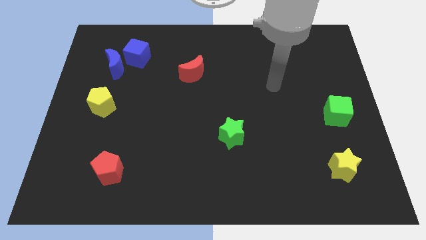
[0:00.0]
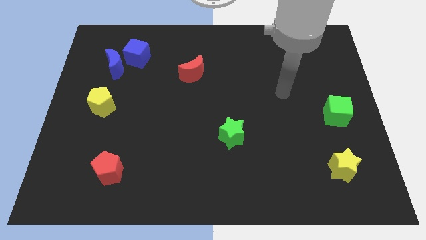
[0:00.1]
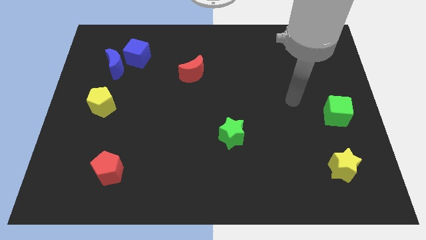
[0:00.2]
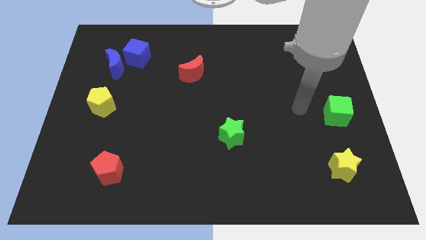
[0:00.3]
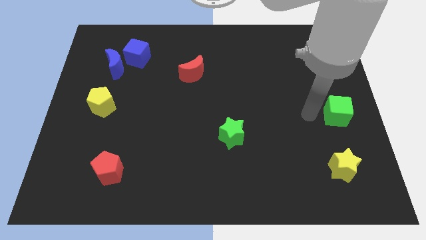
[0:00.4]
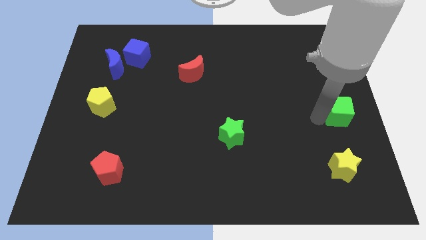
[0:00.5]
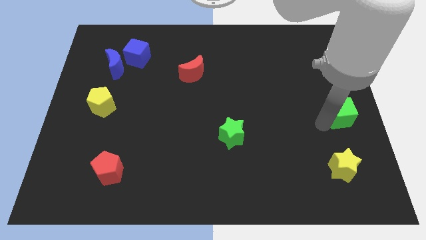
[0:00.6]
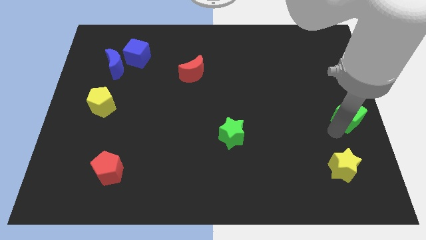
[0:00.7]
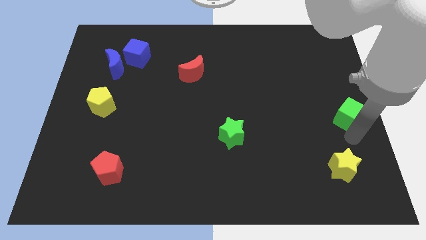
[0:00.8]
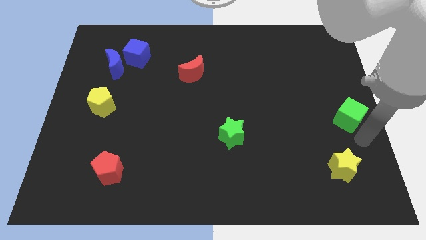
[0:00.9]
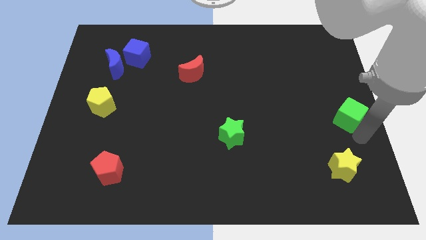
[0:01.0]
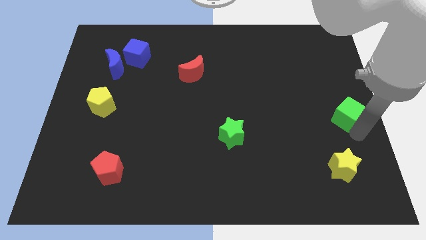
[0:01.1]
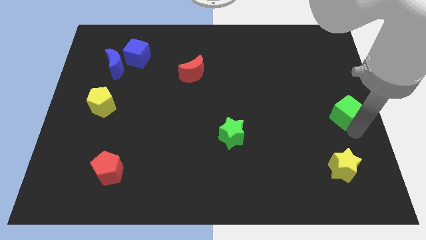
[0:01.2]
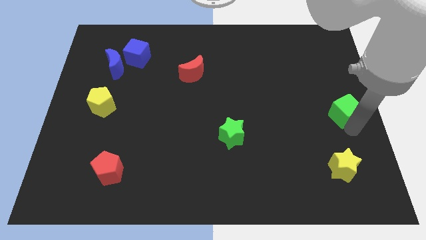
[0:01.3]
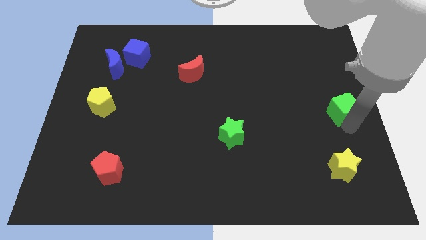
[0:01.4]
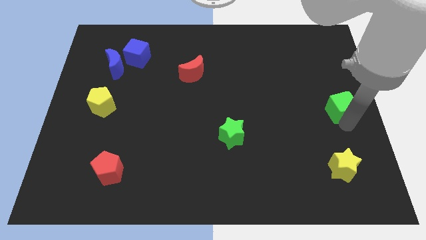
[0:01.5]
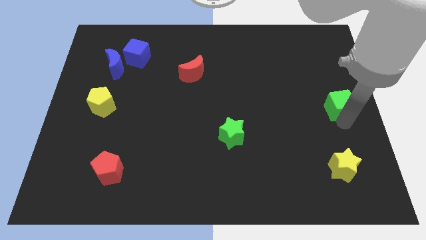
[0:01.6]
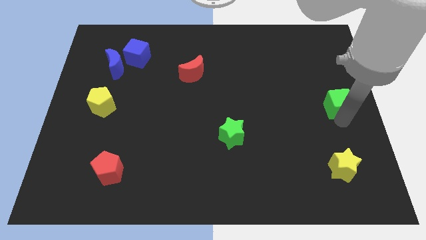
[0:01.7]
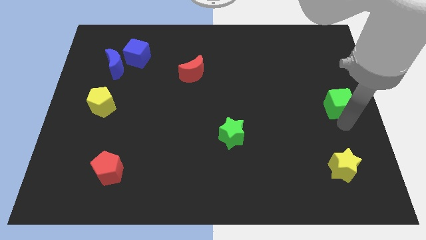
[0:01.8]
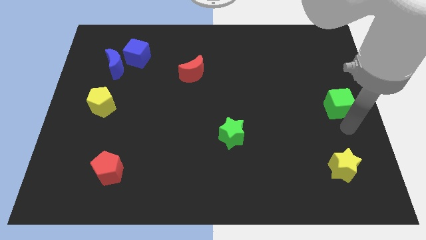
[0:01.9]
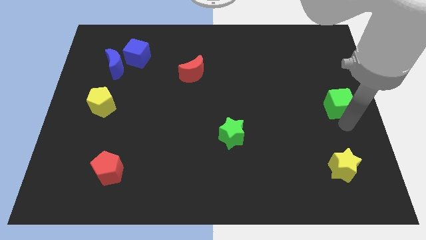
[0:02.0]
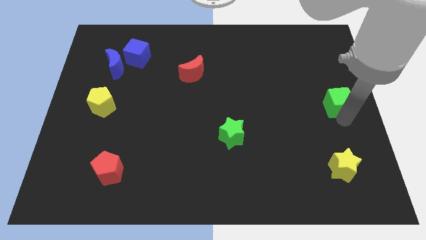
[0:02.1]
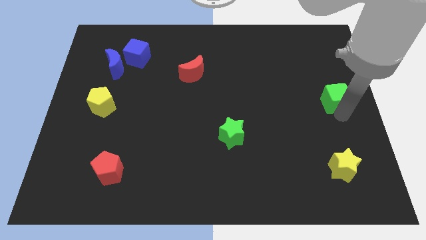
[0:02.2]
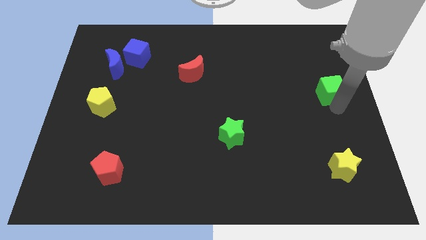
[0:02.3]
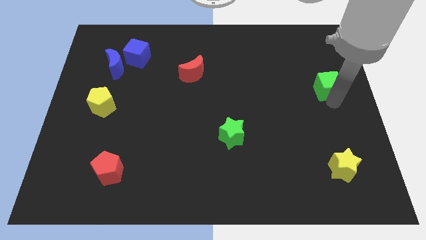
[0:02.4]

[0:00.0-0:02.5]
slightly push the green cube upwards

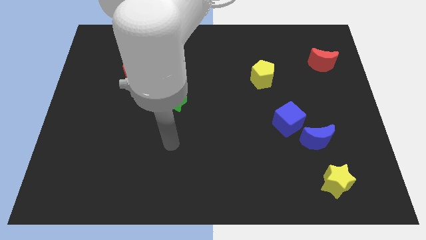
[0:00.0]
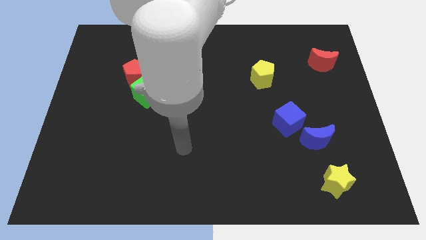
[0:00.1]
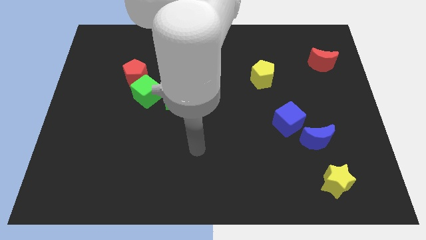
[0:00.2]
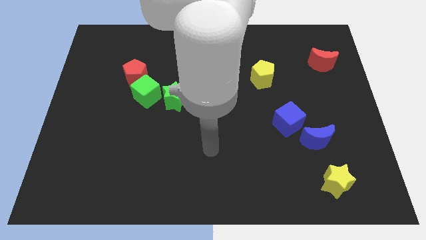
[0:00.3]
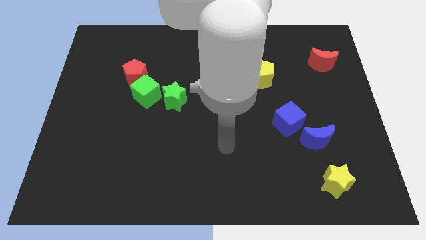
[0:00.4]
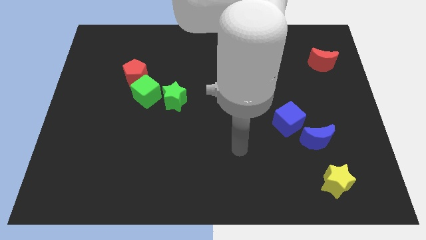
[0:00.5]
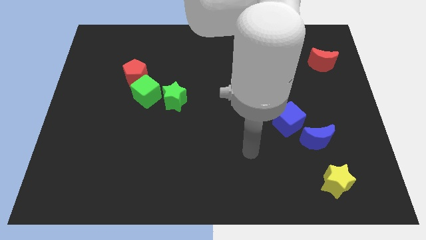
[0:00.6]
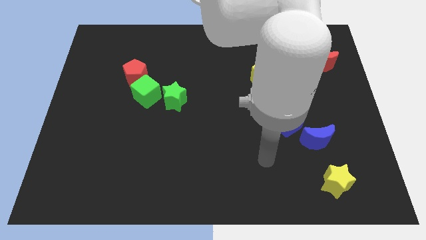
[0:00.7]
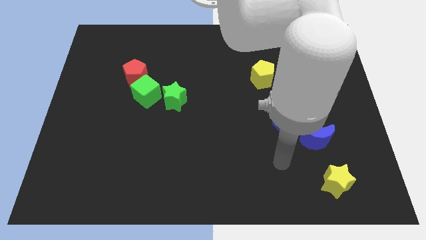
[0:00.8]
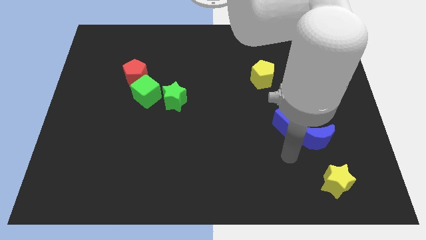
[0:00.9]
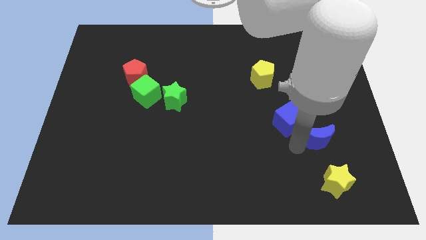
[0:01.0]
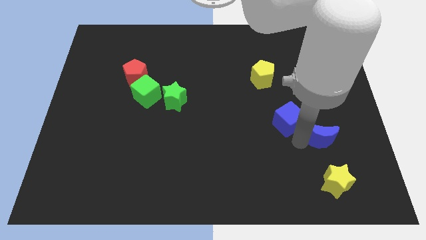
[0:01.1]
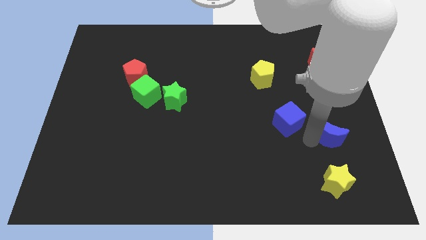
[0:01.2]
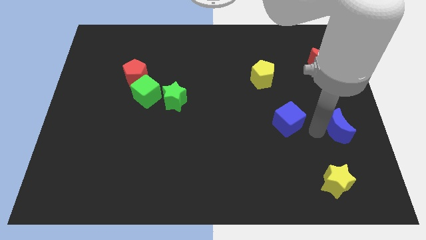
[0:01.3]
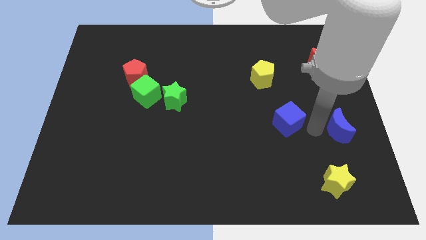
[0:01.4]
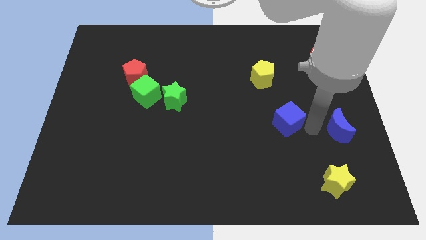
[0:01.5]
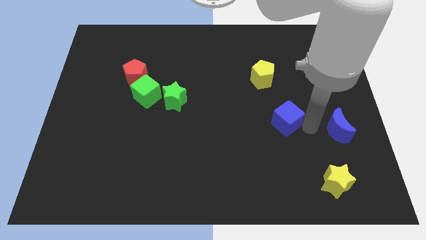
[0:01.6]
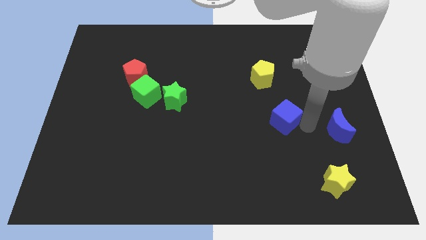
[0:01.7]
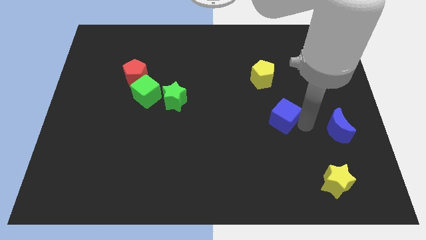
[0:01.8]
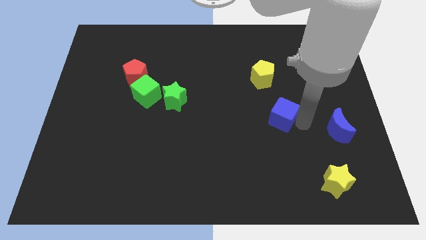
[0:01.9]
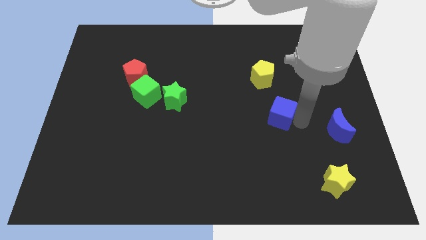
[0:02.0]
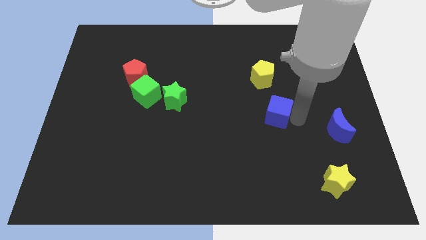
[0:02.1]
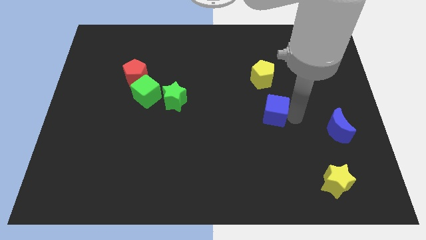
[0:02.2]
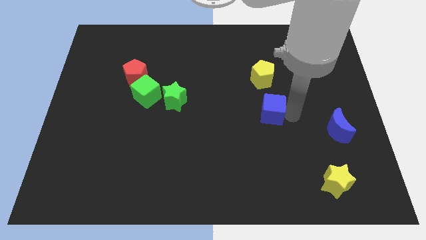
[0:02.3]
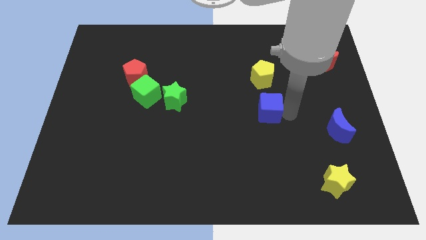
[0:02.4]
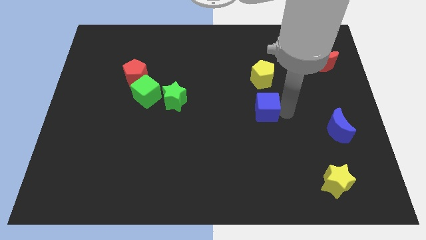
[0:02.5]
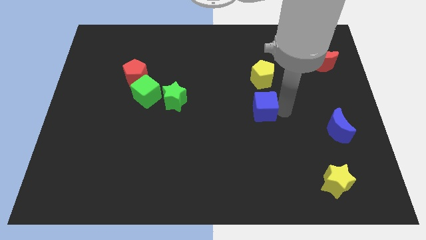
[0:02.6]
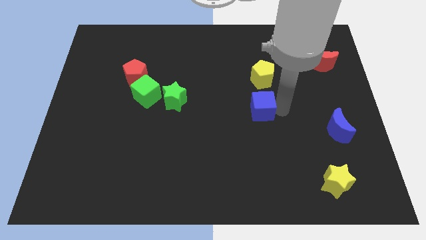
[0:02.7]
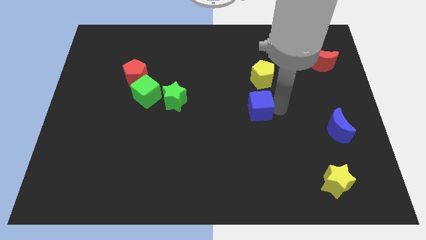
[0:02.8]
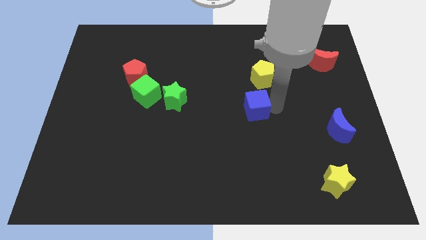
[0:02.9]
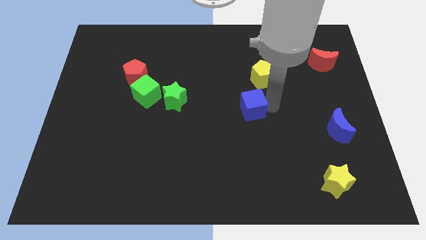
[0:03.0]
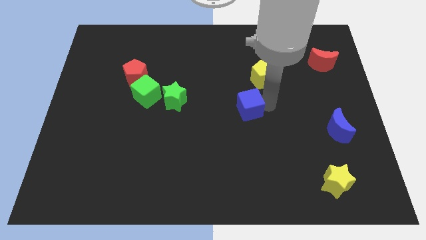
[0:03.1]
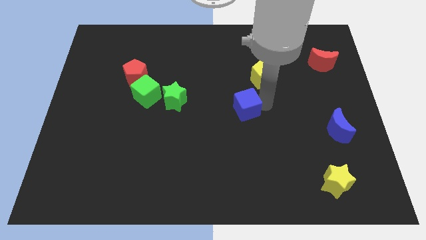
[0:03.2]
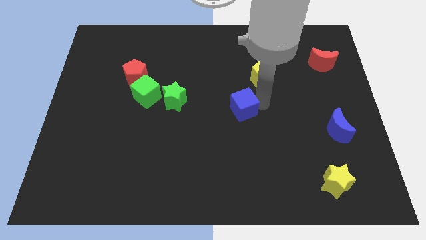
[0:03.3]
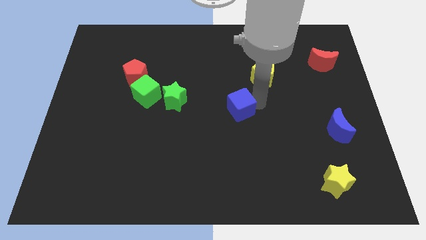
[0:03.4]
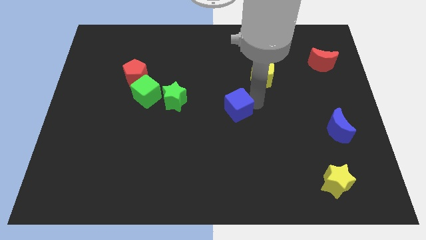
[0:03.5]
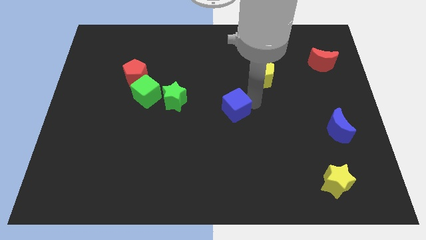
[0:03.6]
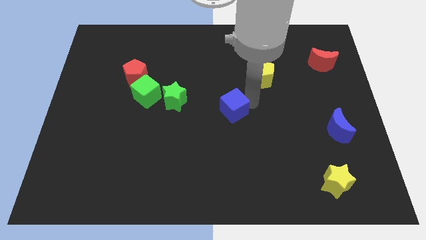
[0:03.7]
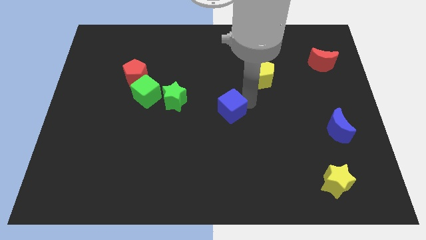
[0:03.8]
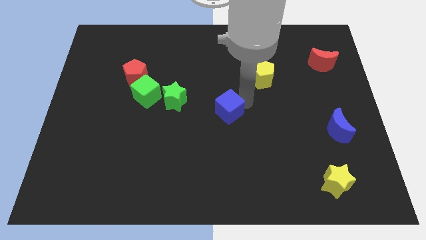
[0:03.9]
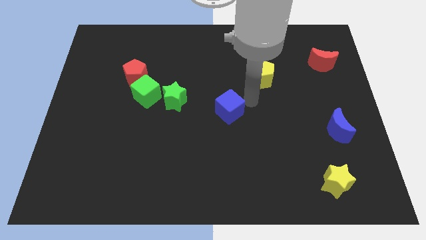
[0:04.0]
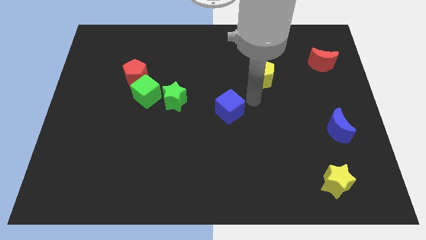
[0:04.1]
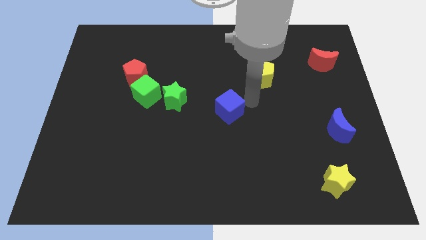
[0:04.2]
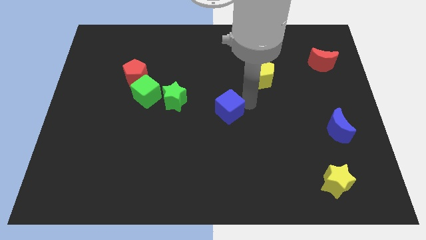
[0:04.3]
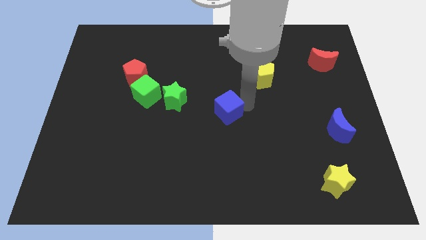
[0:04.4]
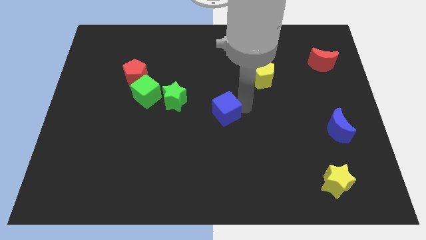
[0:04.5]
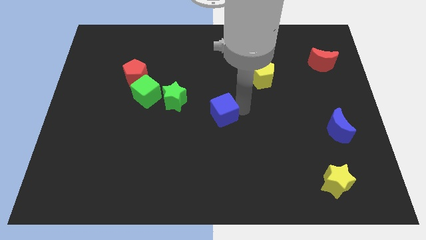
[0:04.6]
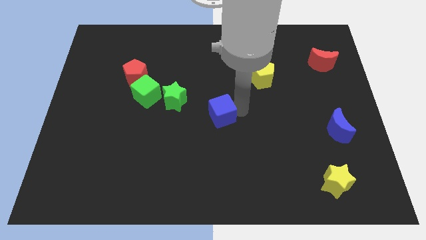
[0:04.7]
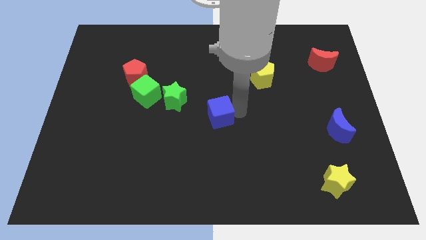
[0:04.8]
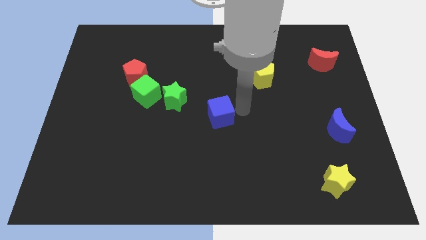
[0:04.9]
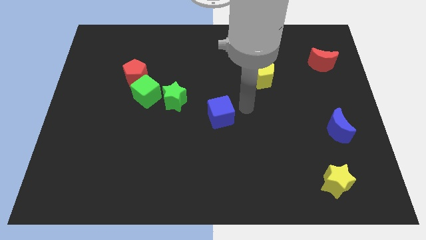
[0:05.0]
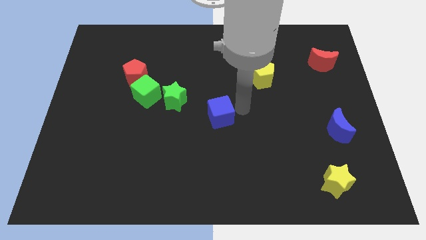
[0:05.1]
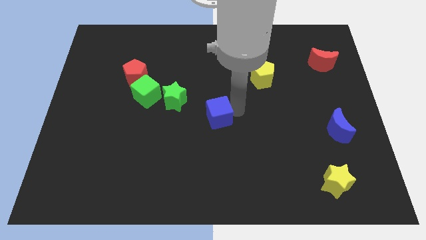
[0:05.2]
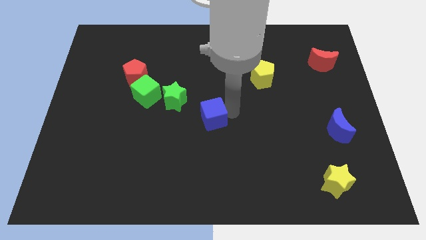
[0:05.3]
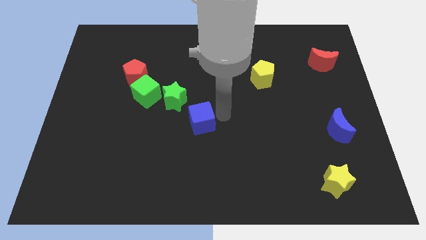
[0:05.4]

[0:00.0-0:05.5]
push the blue cube to the left

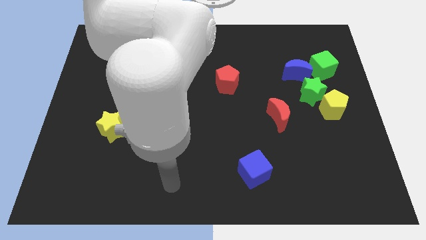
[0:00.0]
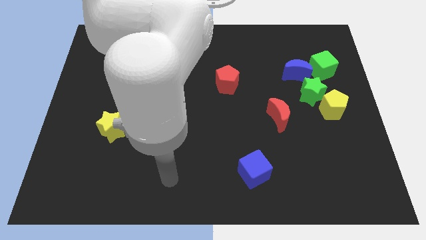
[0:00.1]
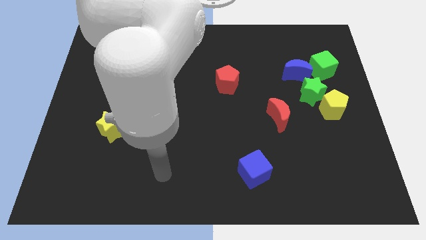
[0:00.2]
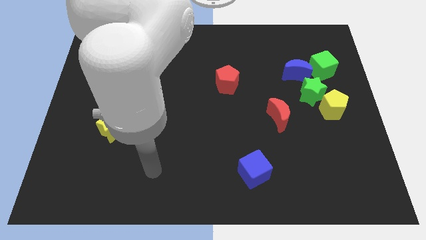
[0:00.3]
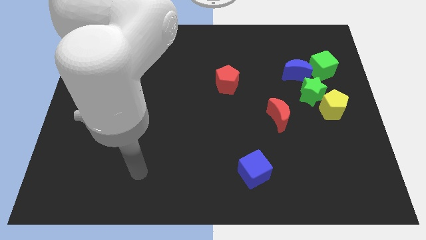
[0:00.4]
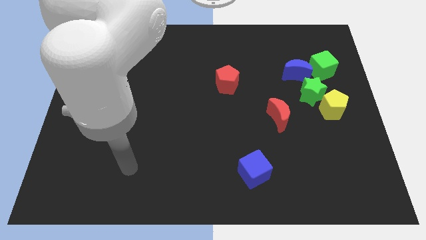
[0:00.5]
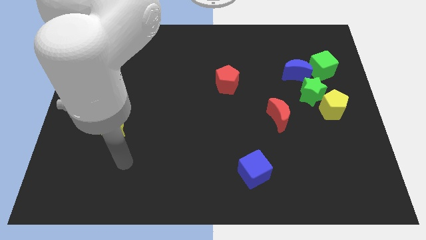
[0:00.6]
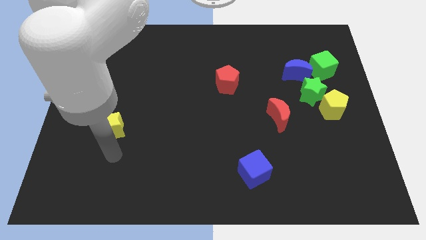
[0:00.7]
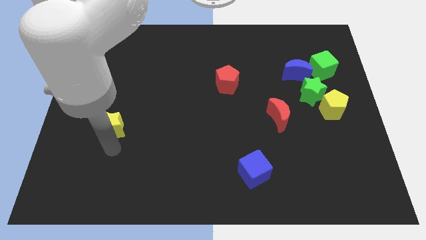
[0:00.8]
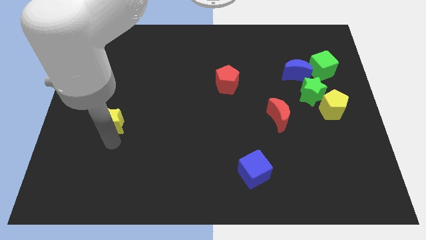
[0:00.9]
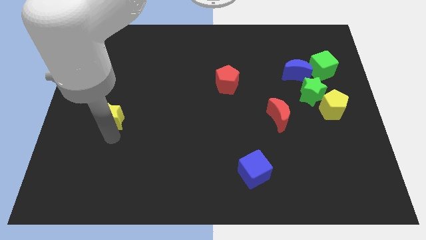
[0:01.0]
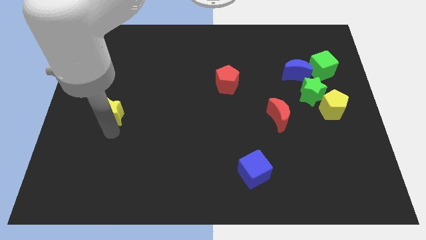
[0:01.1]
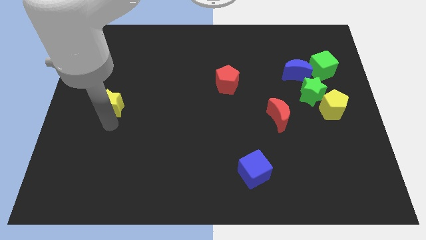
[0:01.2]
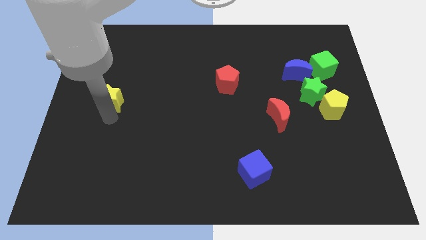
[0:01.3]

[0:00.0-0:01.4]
slide the yellow star a little up
